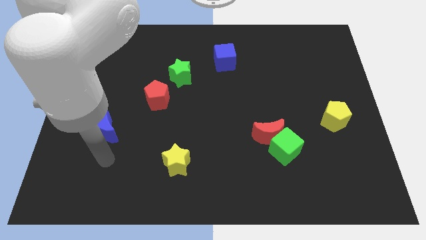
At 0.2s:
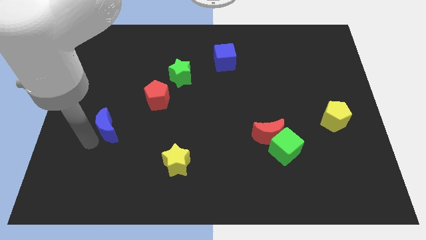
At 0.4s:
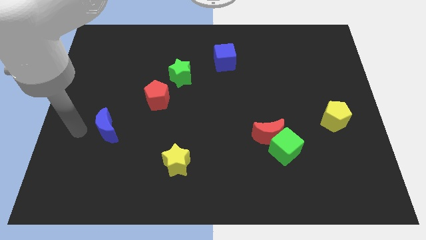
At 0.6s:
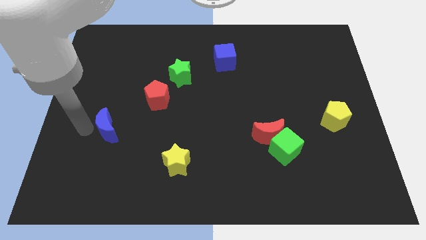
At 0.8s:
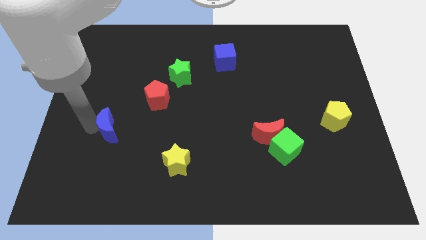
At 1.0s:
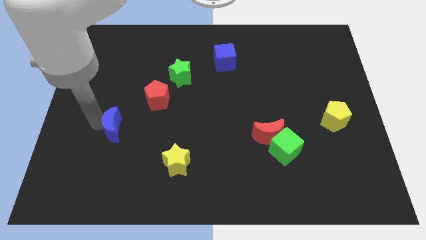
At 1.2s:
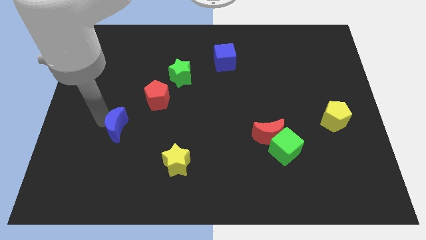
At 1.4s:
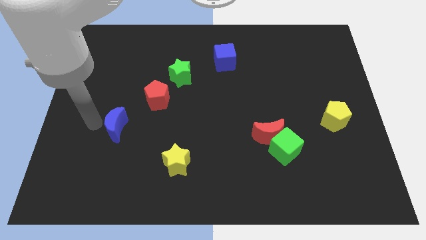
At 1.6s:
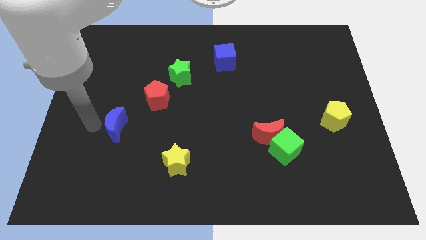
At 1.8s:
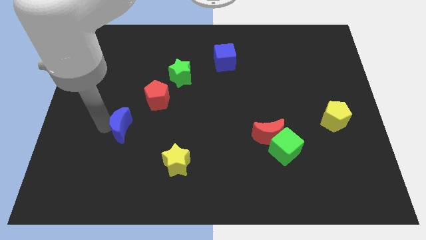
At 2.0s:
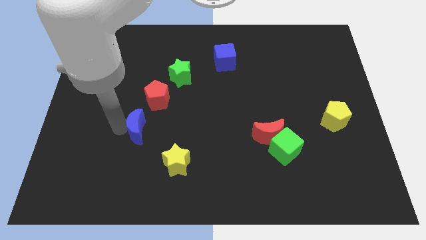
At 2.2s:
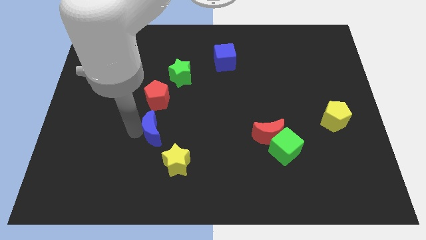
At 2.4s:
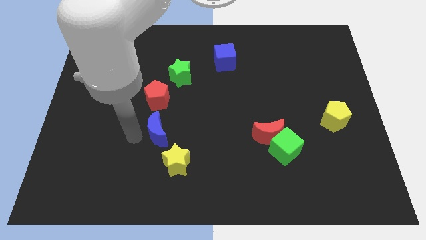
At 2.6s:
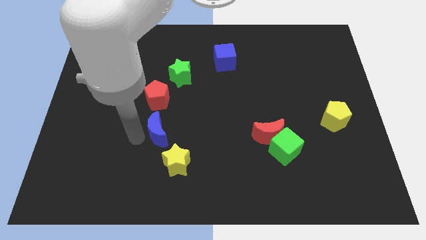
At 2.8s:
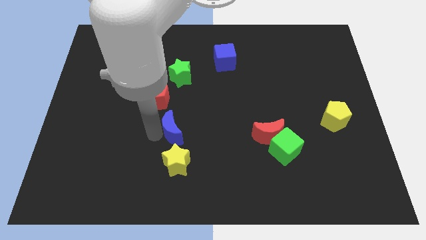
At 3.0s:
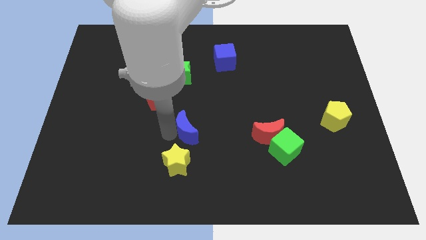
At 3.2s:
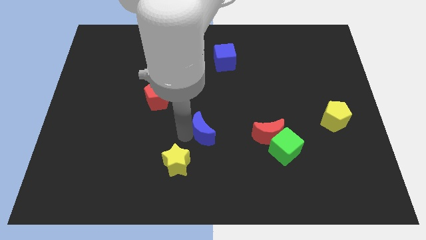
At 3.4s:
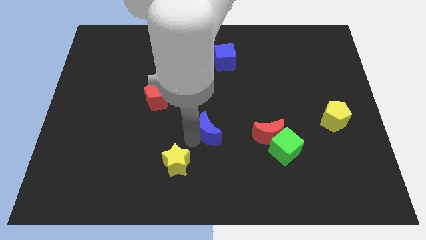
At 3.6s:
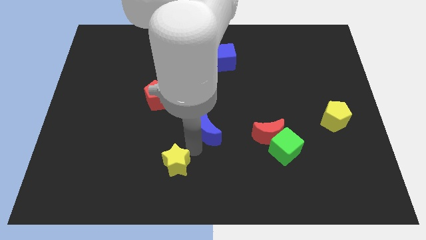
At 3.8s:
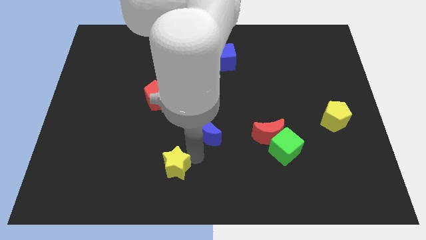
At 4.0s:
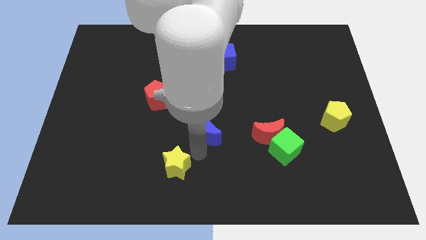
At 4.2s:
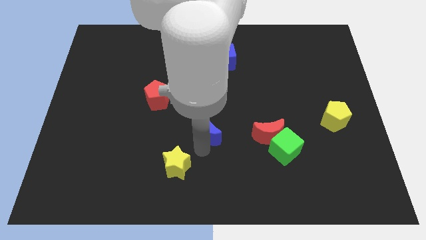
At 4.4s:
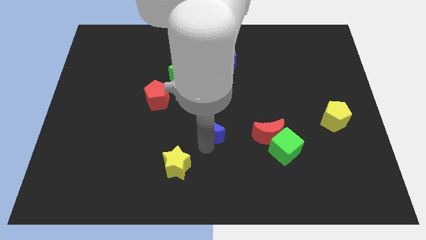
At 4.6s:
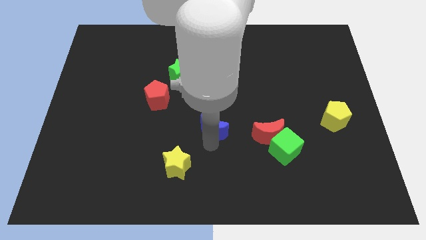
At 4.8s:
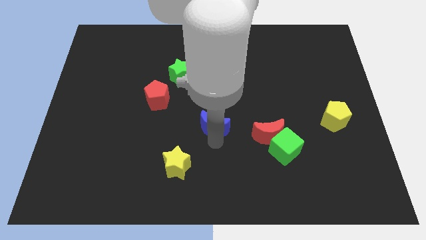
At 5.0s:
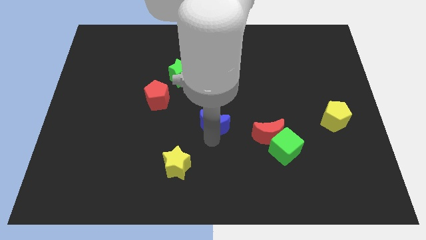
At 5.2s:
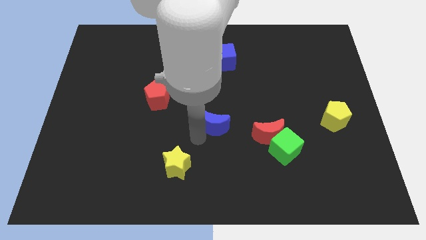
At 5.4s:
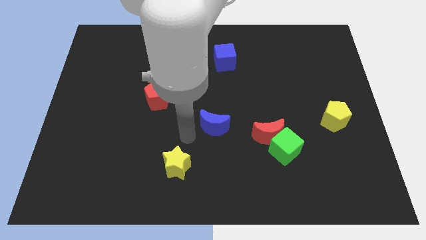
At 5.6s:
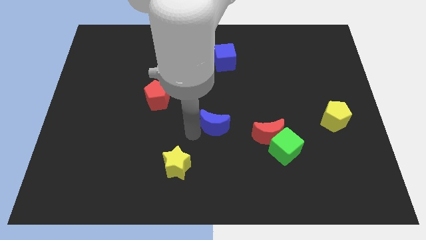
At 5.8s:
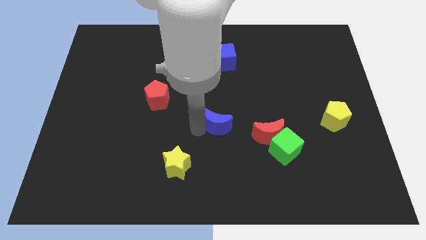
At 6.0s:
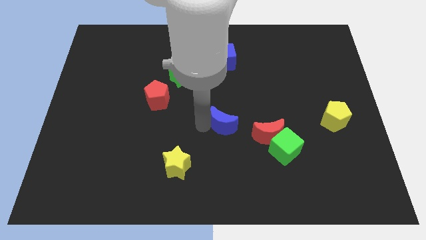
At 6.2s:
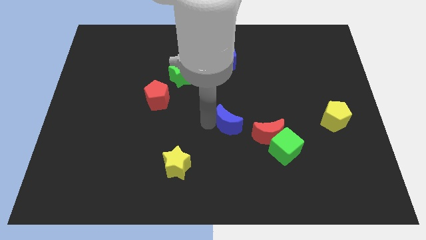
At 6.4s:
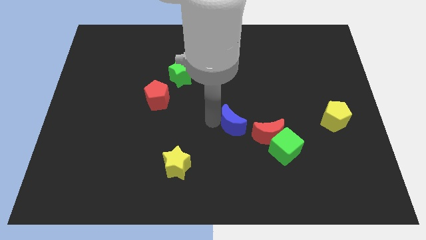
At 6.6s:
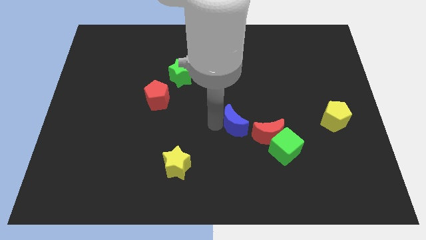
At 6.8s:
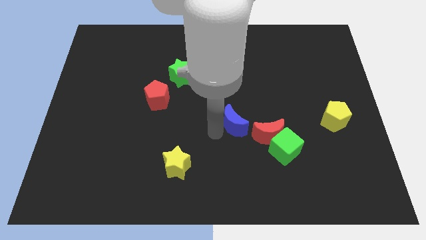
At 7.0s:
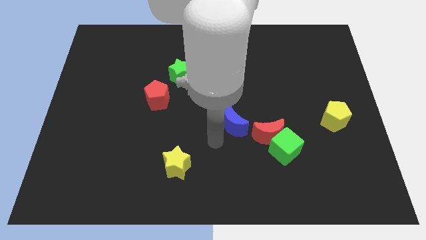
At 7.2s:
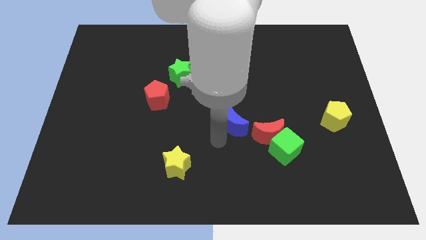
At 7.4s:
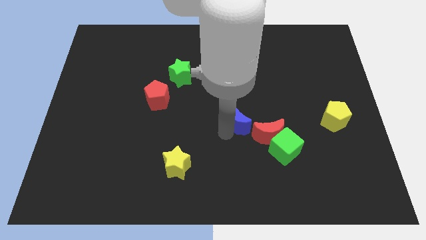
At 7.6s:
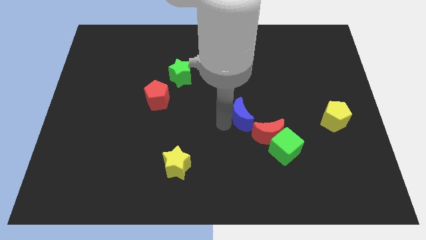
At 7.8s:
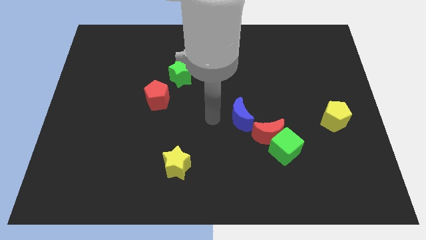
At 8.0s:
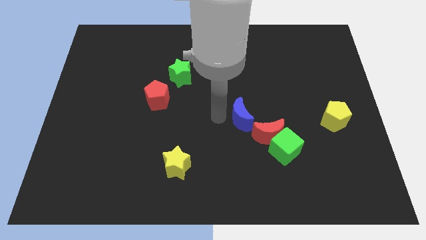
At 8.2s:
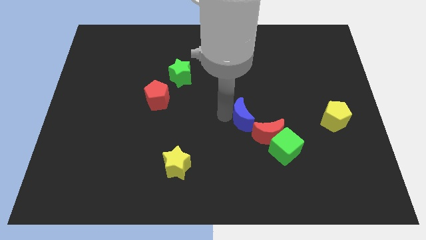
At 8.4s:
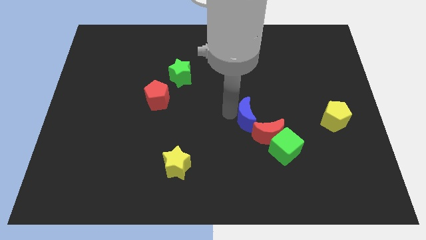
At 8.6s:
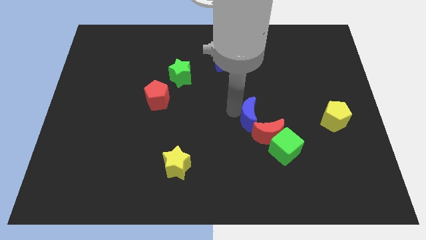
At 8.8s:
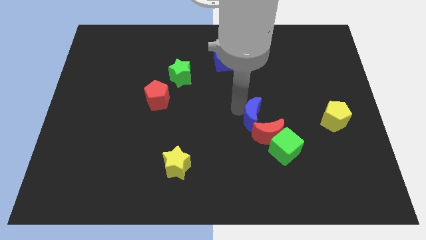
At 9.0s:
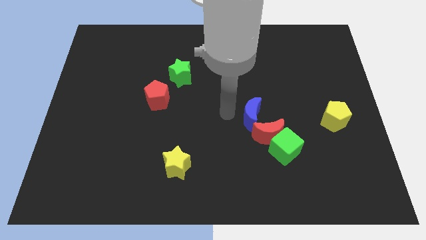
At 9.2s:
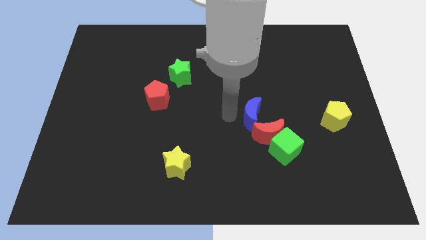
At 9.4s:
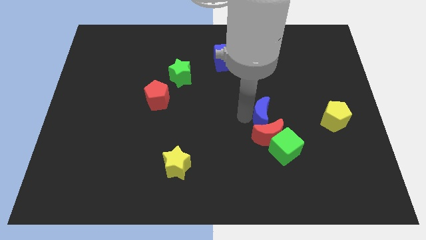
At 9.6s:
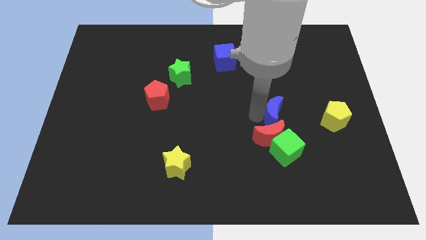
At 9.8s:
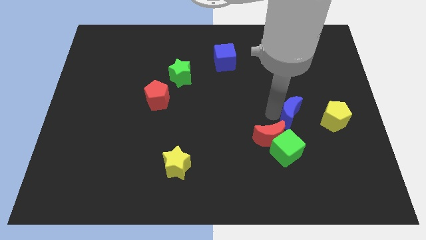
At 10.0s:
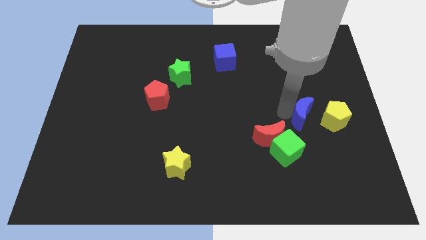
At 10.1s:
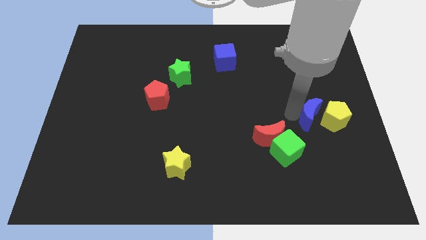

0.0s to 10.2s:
move the blue moon towards the yellow pentagon

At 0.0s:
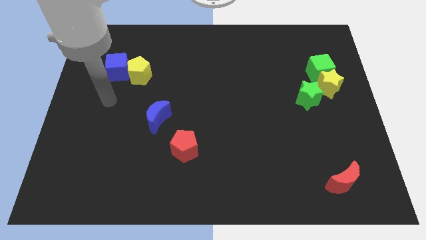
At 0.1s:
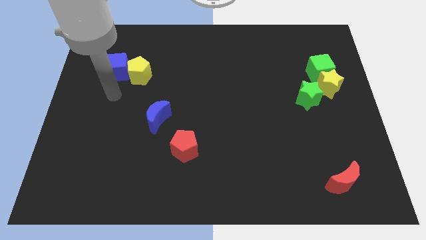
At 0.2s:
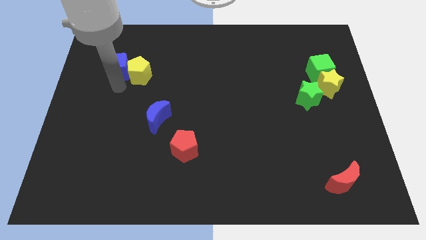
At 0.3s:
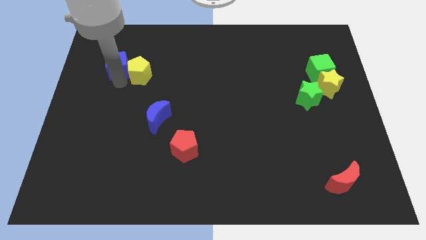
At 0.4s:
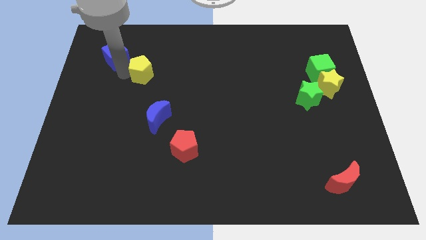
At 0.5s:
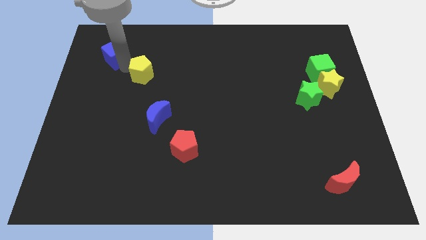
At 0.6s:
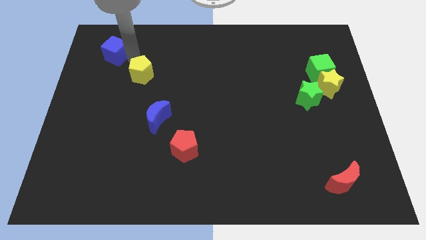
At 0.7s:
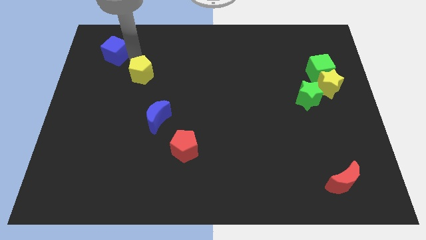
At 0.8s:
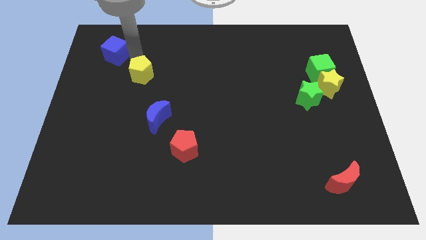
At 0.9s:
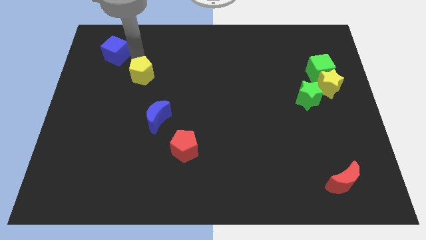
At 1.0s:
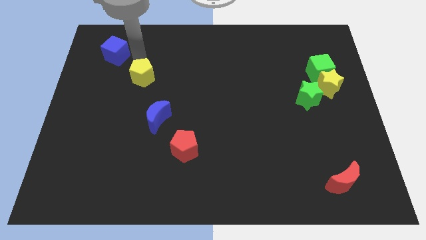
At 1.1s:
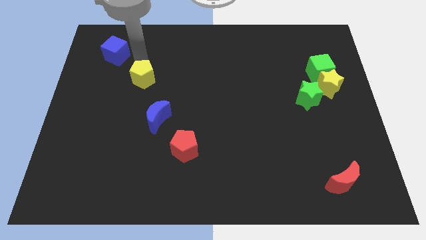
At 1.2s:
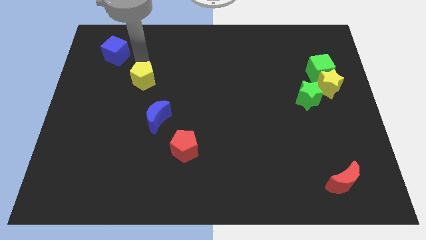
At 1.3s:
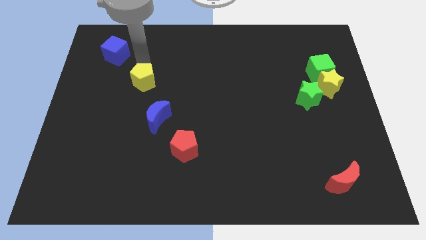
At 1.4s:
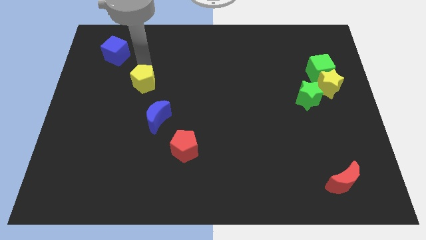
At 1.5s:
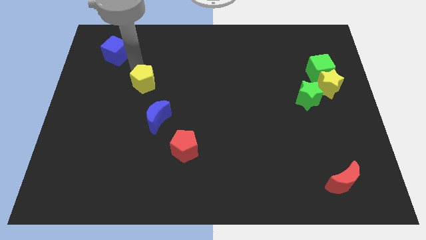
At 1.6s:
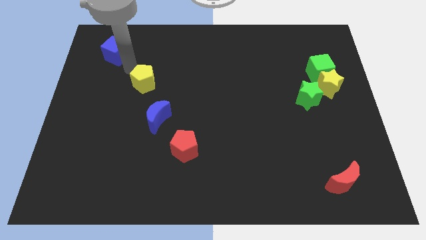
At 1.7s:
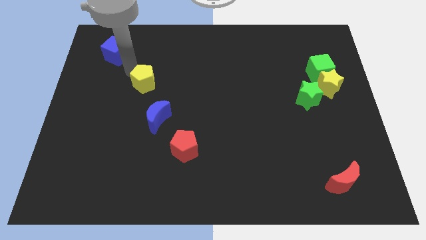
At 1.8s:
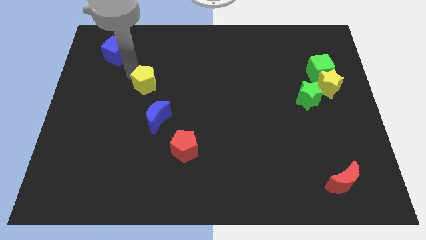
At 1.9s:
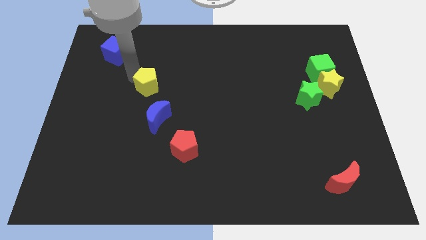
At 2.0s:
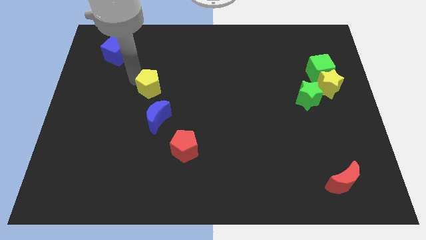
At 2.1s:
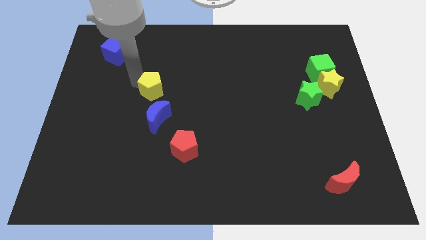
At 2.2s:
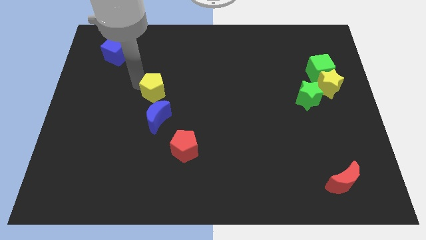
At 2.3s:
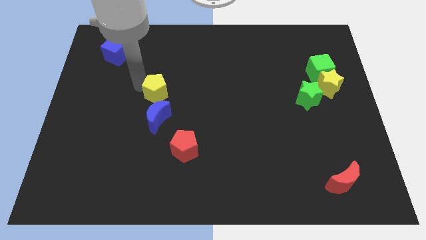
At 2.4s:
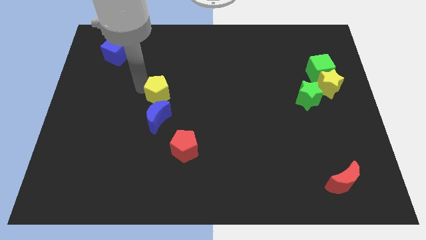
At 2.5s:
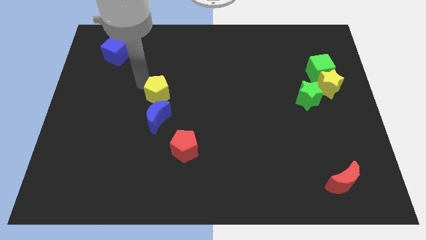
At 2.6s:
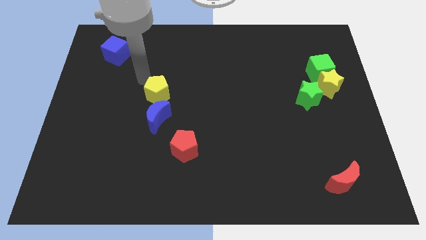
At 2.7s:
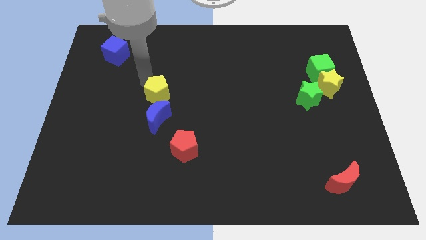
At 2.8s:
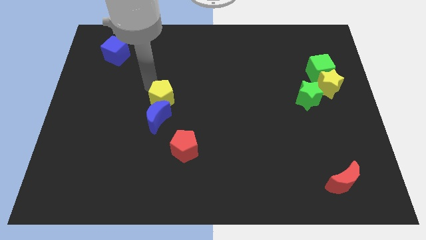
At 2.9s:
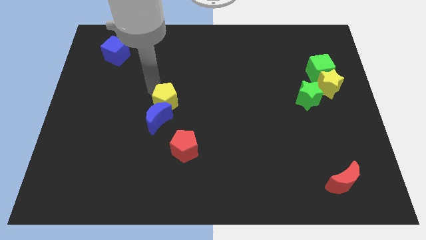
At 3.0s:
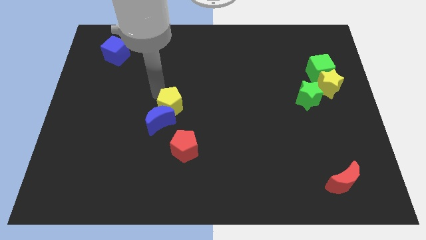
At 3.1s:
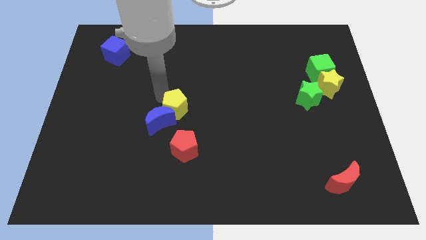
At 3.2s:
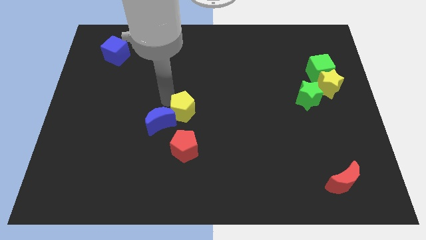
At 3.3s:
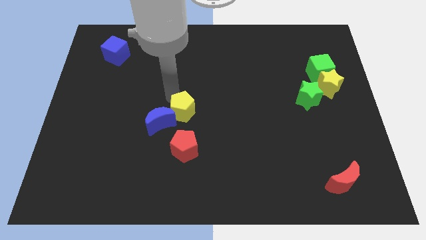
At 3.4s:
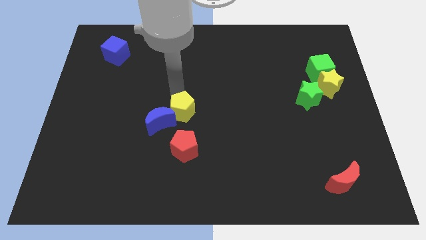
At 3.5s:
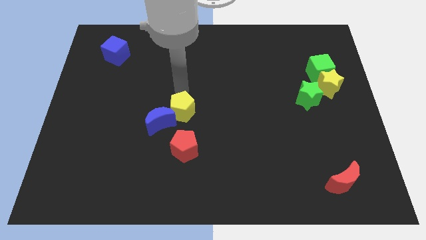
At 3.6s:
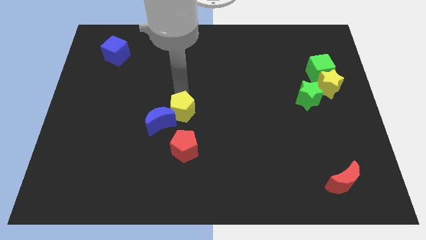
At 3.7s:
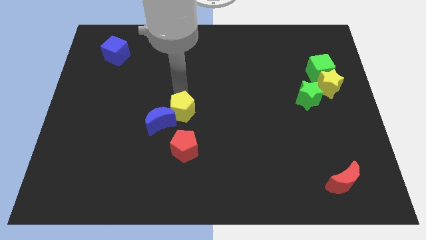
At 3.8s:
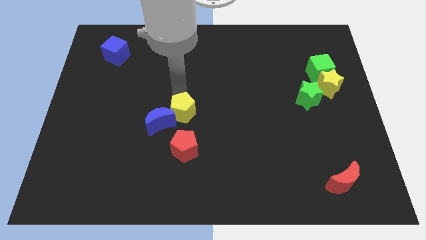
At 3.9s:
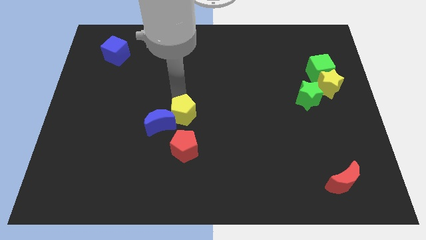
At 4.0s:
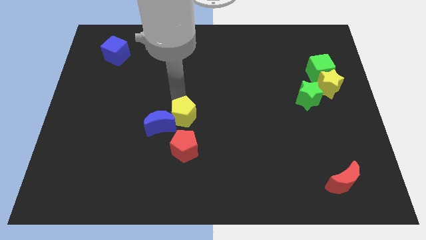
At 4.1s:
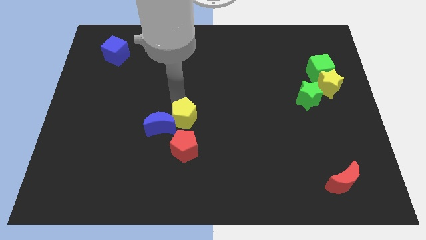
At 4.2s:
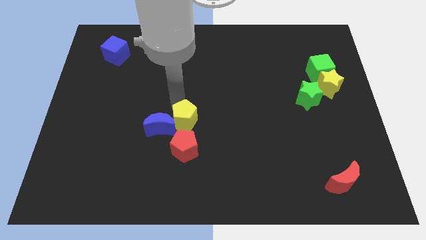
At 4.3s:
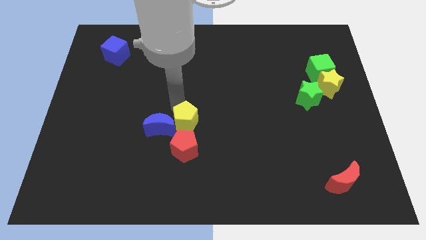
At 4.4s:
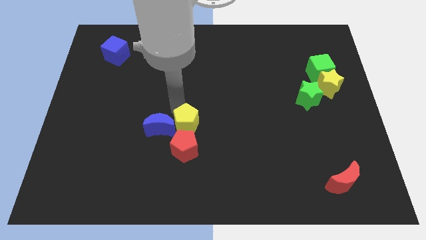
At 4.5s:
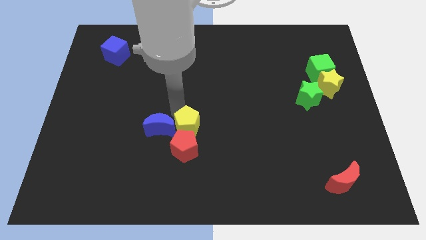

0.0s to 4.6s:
slide the yellow pentagon to the red pentagon
